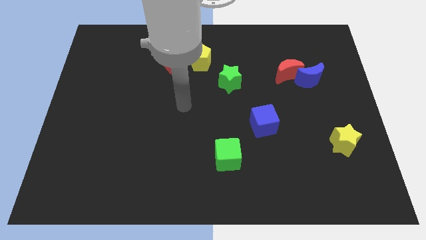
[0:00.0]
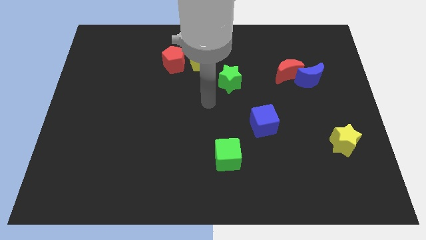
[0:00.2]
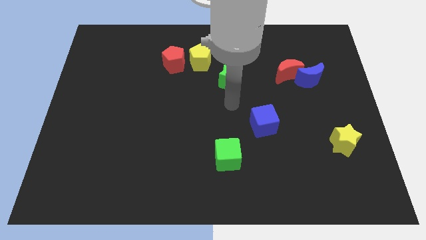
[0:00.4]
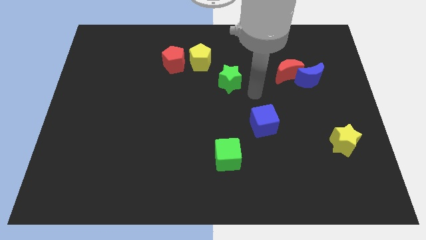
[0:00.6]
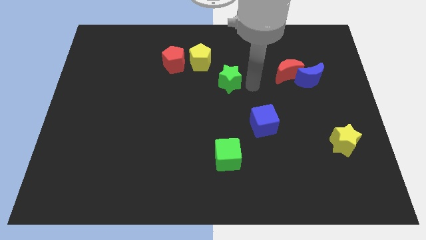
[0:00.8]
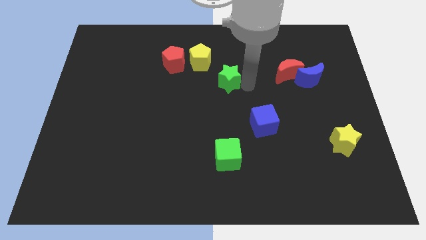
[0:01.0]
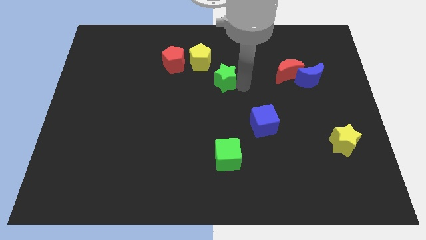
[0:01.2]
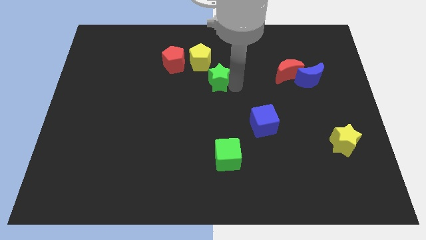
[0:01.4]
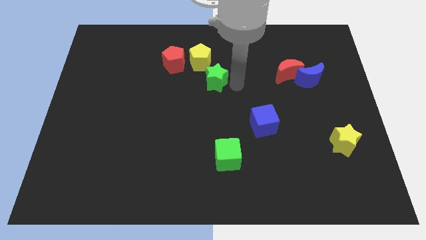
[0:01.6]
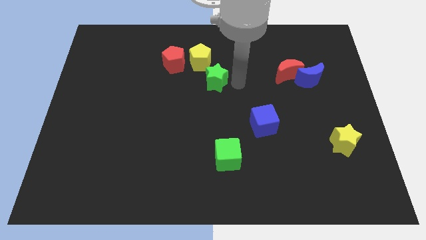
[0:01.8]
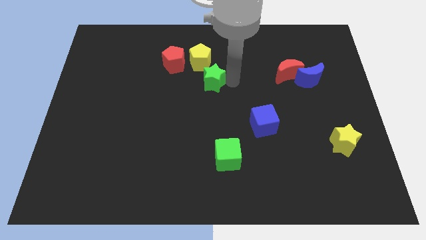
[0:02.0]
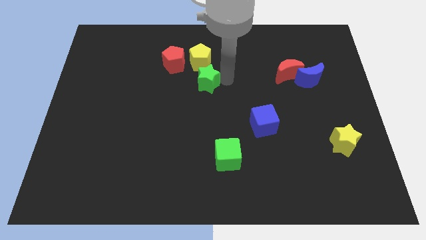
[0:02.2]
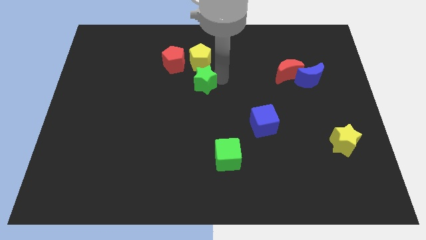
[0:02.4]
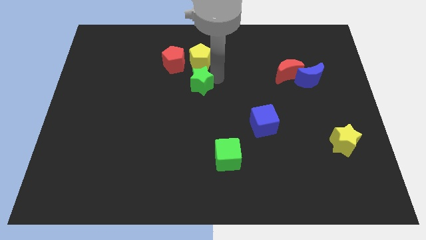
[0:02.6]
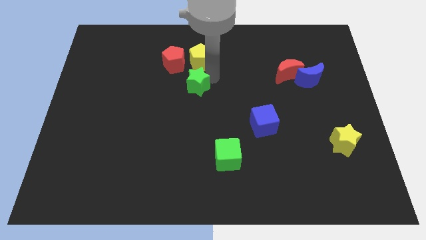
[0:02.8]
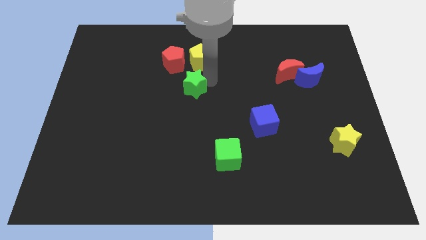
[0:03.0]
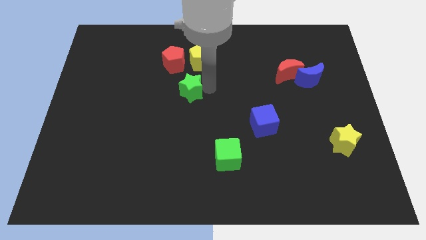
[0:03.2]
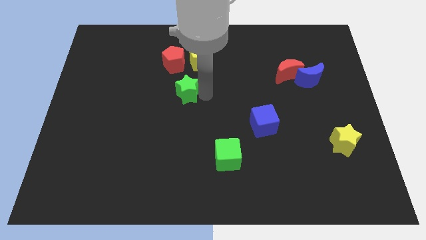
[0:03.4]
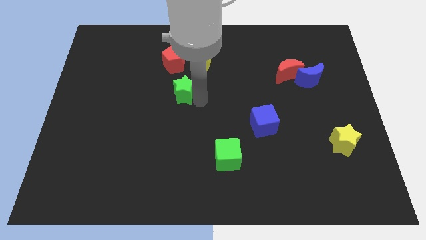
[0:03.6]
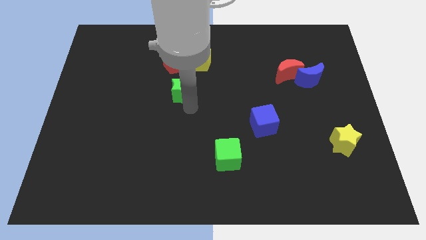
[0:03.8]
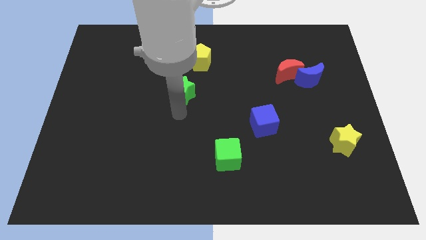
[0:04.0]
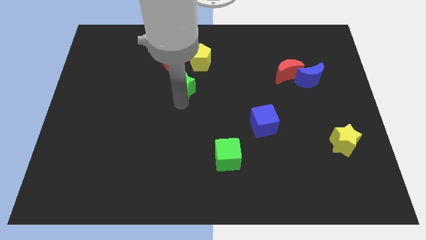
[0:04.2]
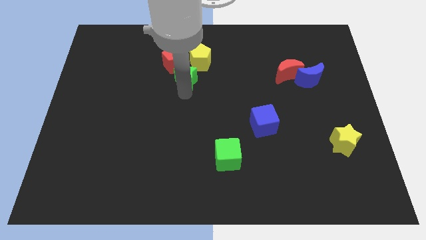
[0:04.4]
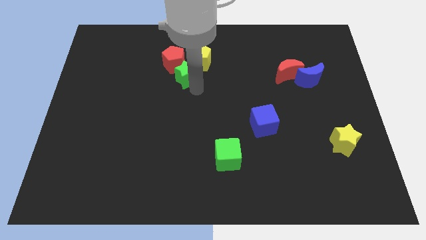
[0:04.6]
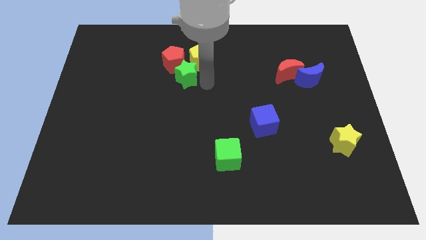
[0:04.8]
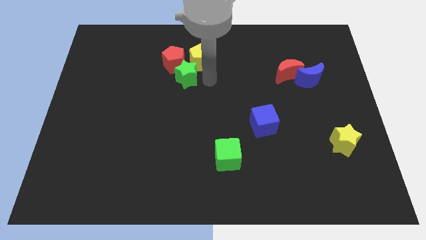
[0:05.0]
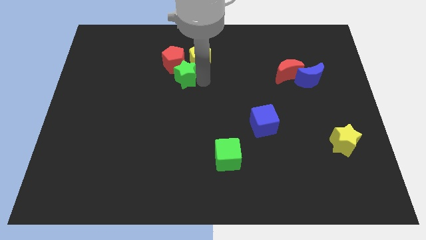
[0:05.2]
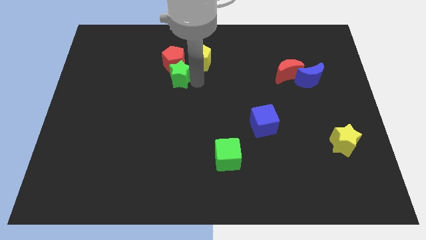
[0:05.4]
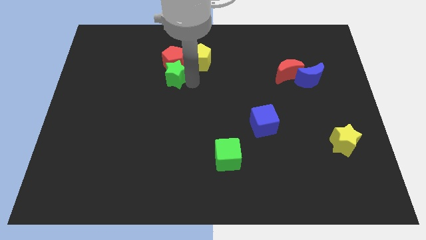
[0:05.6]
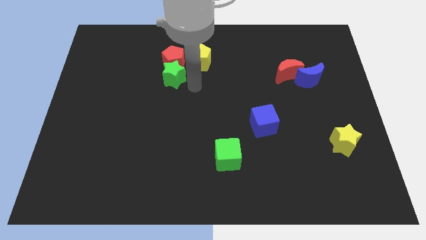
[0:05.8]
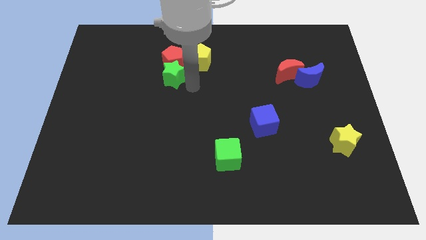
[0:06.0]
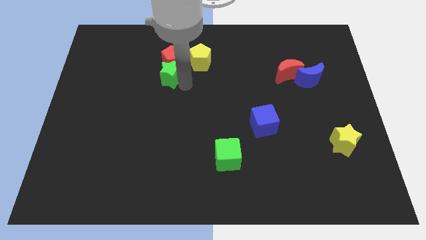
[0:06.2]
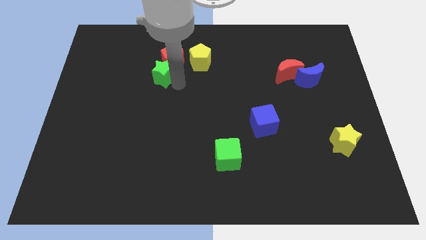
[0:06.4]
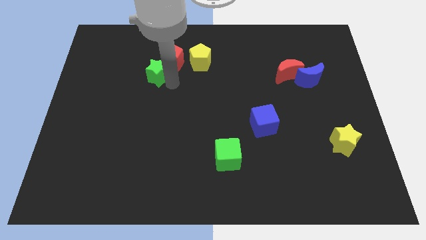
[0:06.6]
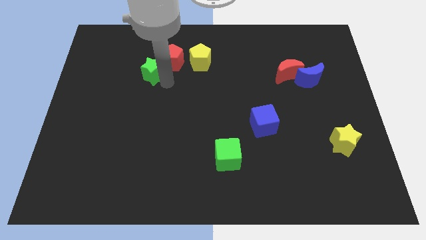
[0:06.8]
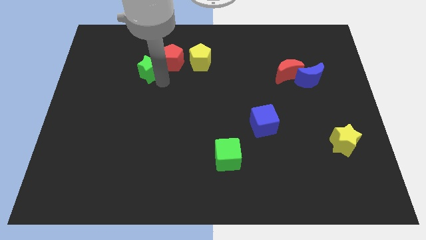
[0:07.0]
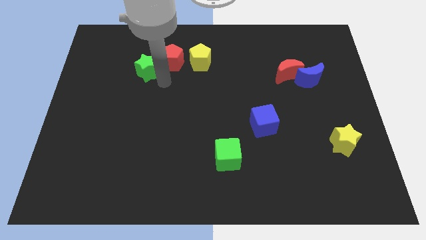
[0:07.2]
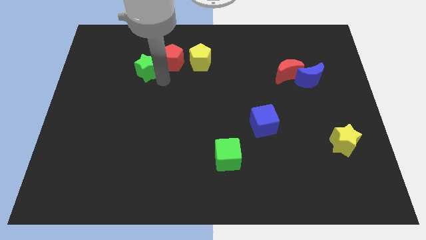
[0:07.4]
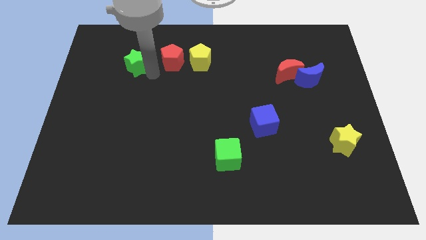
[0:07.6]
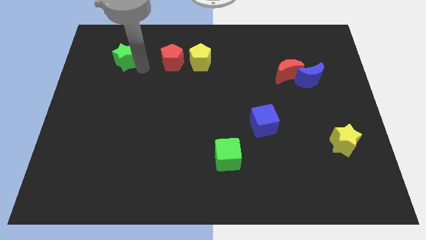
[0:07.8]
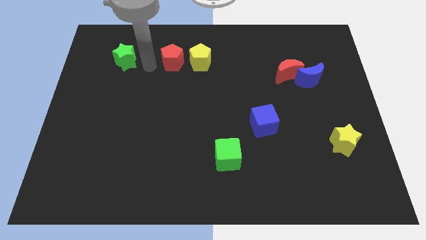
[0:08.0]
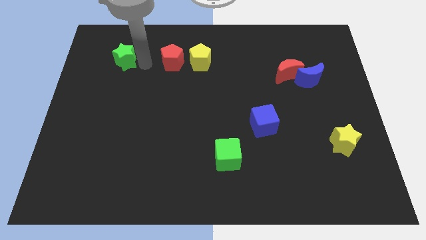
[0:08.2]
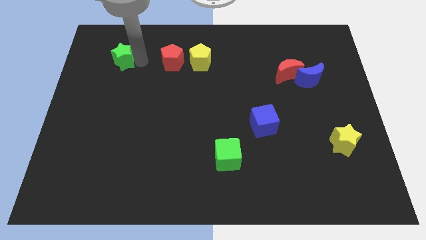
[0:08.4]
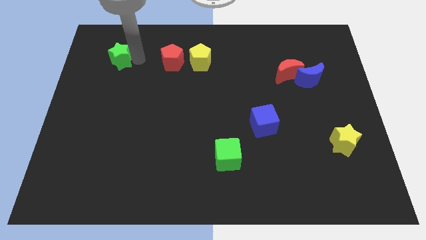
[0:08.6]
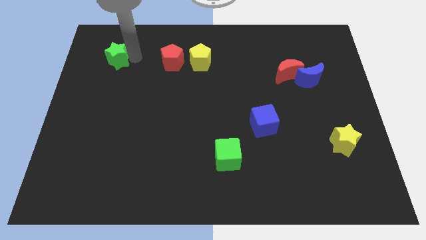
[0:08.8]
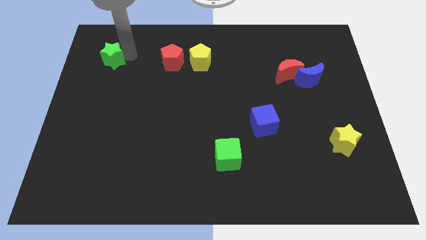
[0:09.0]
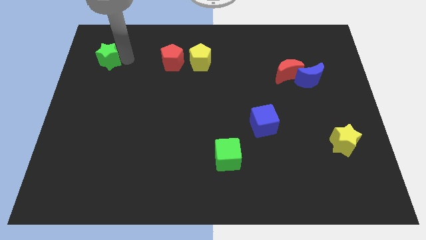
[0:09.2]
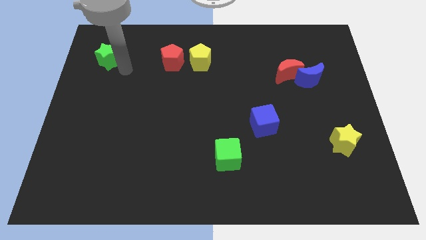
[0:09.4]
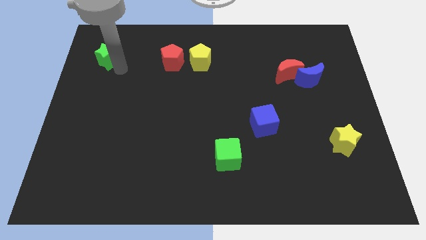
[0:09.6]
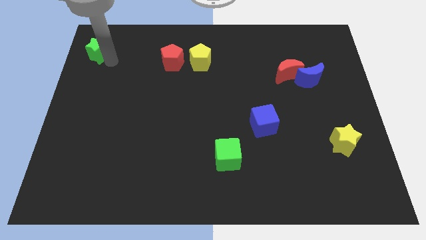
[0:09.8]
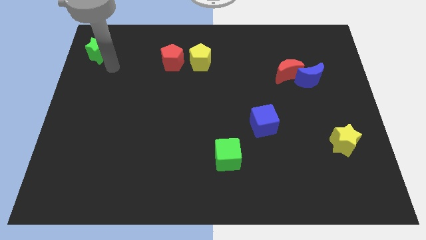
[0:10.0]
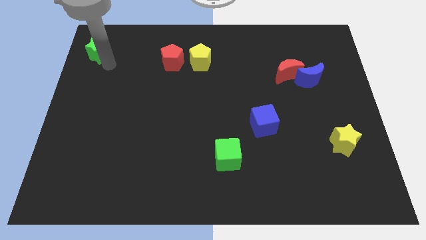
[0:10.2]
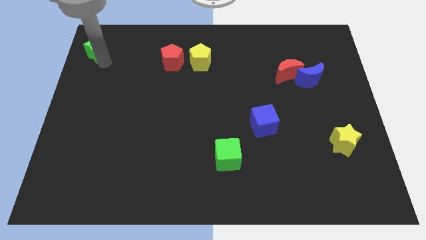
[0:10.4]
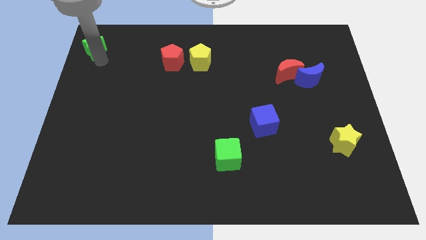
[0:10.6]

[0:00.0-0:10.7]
slide the green star to the top left corner

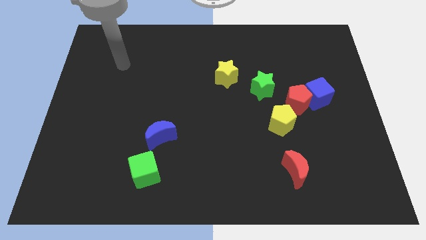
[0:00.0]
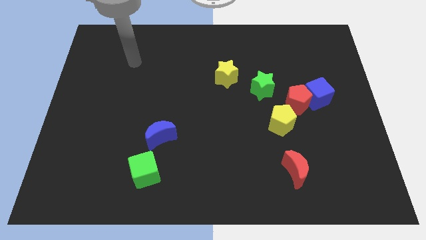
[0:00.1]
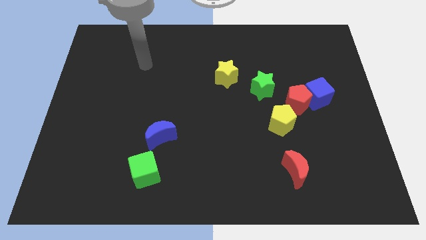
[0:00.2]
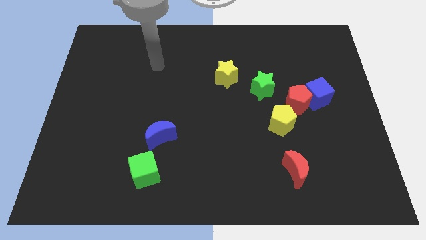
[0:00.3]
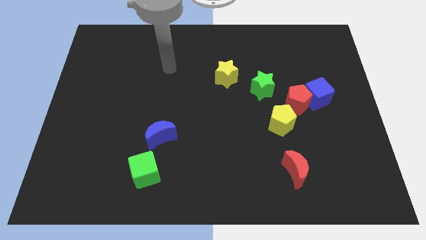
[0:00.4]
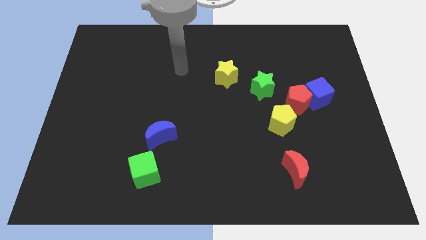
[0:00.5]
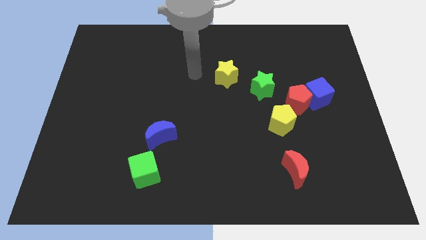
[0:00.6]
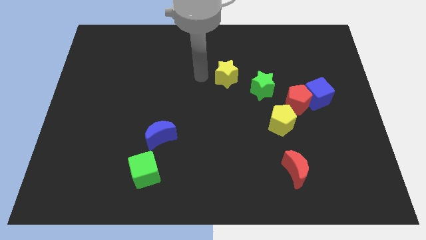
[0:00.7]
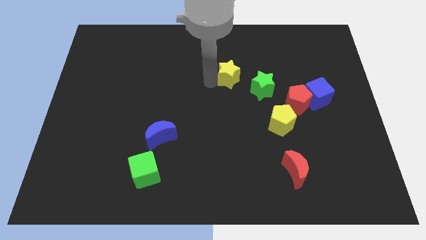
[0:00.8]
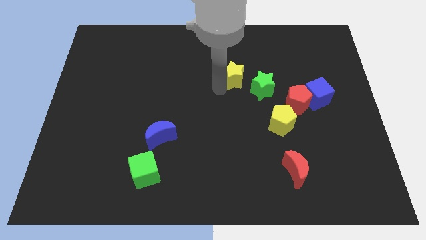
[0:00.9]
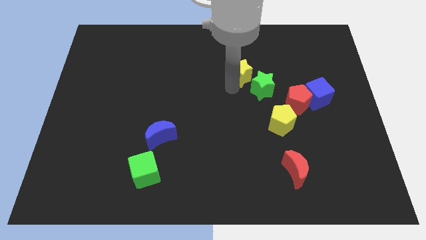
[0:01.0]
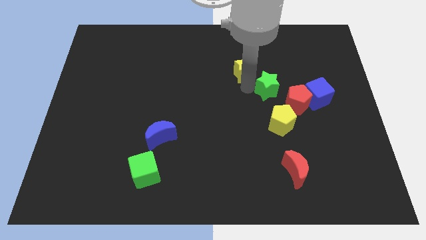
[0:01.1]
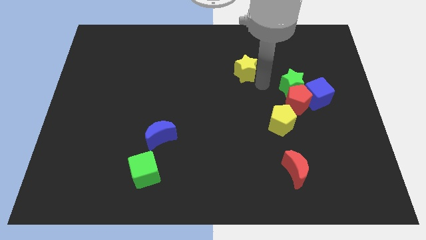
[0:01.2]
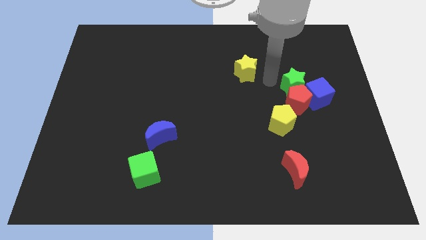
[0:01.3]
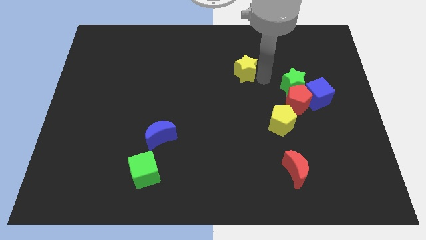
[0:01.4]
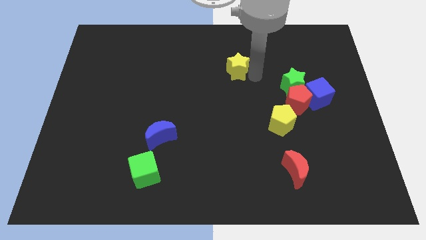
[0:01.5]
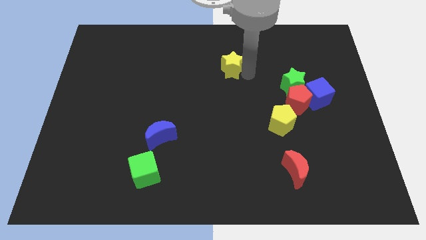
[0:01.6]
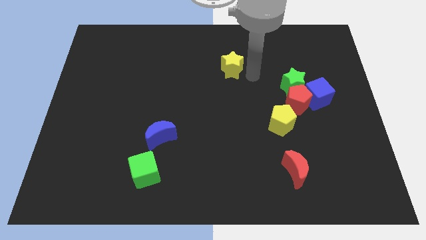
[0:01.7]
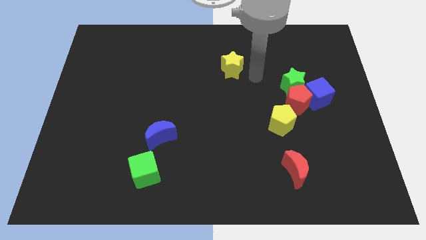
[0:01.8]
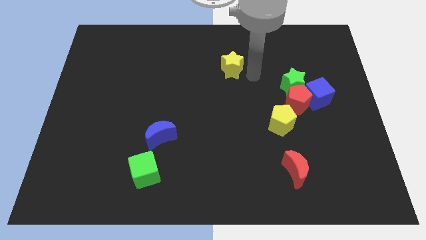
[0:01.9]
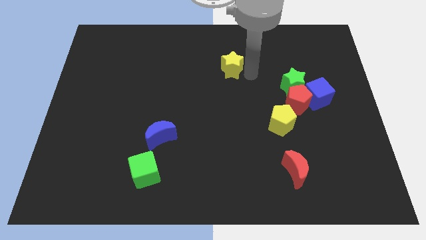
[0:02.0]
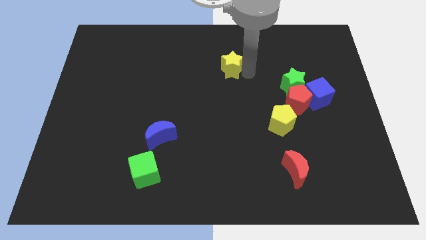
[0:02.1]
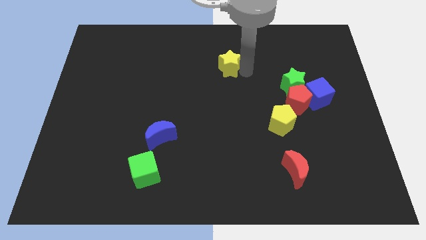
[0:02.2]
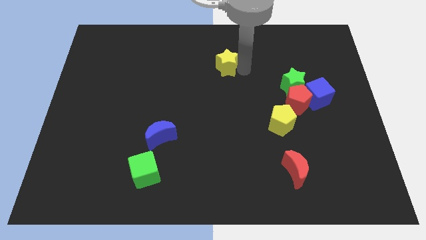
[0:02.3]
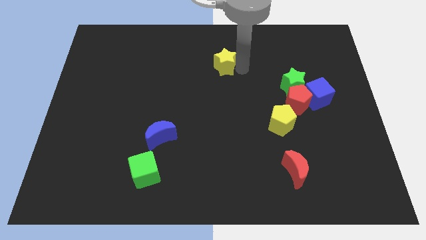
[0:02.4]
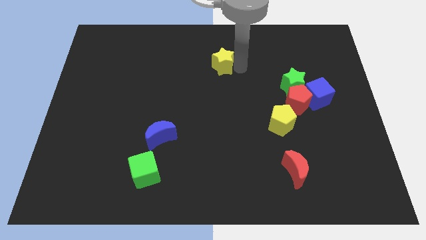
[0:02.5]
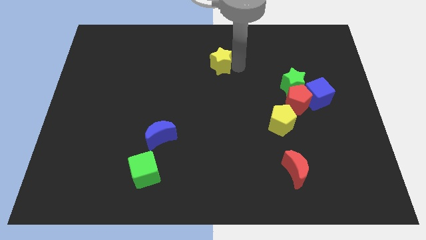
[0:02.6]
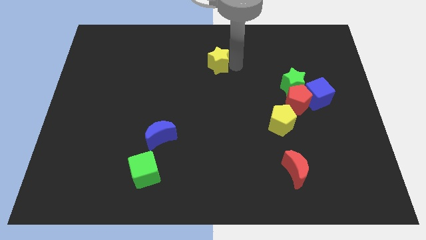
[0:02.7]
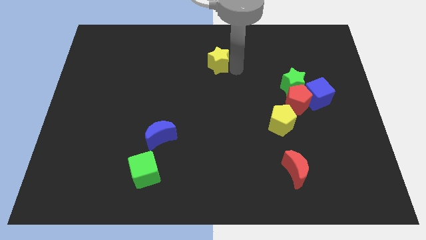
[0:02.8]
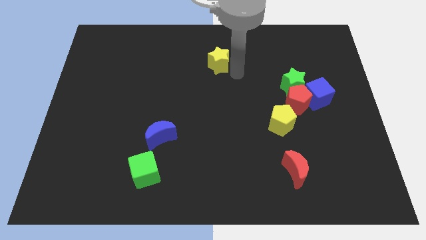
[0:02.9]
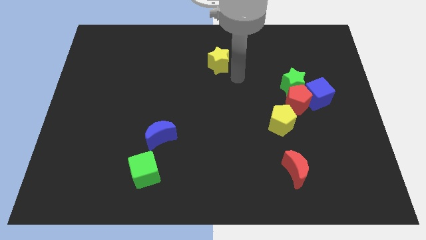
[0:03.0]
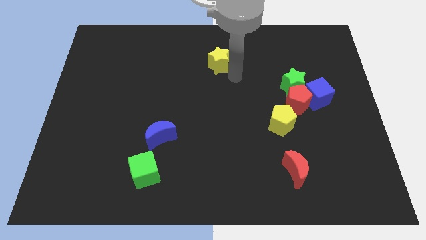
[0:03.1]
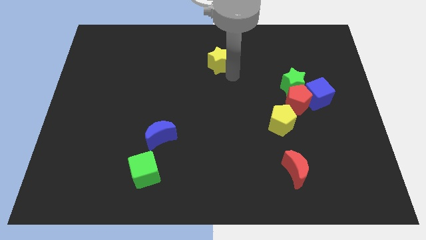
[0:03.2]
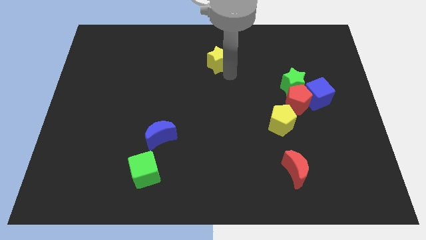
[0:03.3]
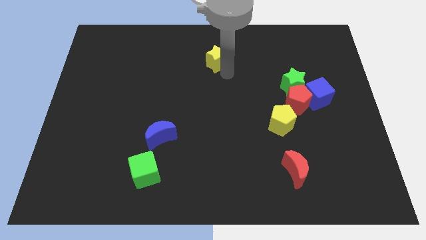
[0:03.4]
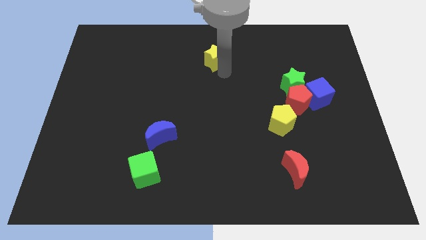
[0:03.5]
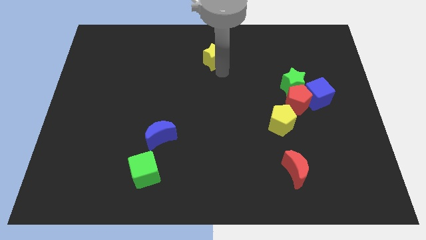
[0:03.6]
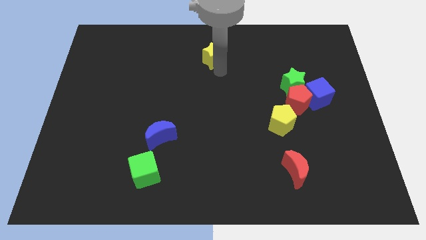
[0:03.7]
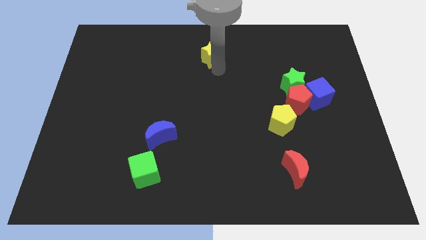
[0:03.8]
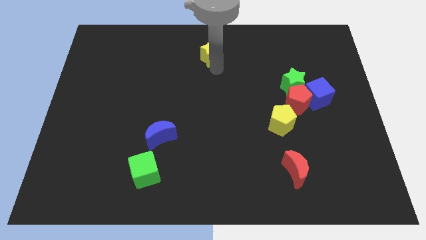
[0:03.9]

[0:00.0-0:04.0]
move the yellow star to the top
